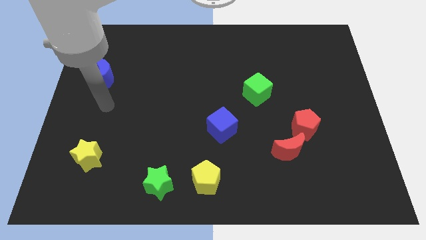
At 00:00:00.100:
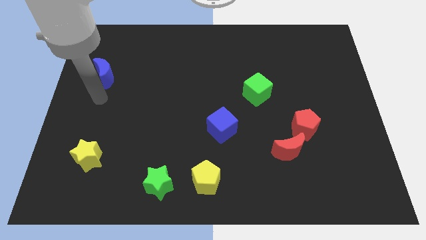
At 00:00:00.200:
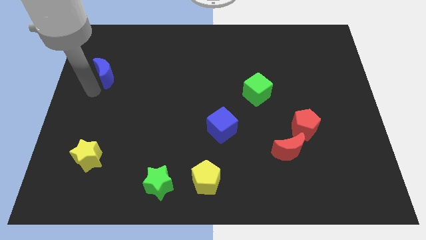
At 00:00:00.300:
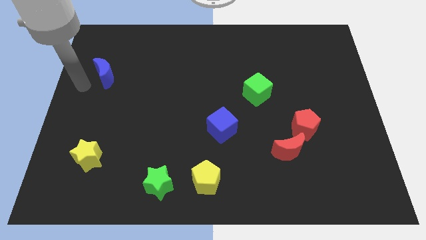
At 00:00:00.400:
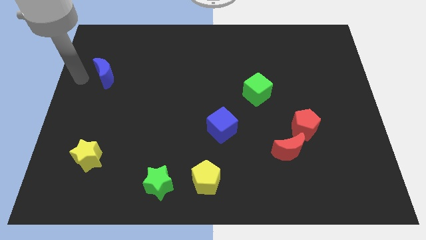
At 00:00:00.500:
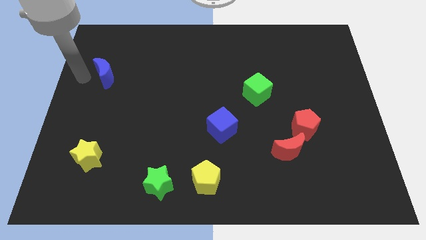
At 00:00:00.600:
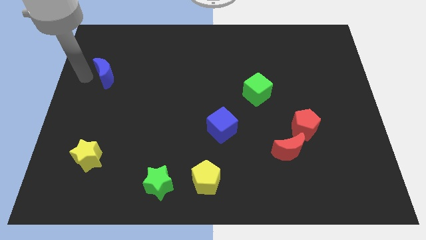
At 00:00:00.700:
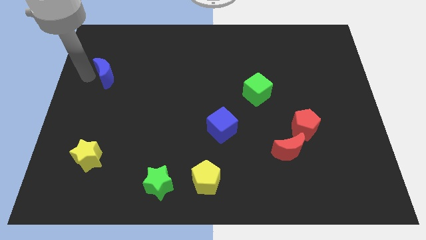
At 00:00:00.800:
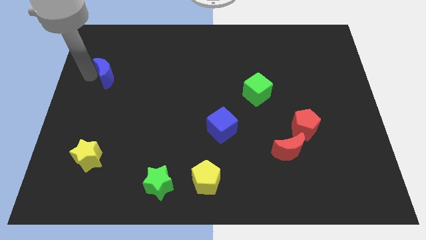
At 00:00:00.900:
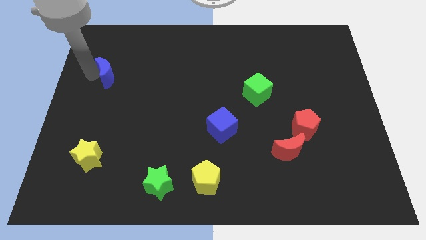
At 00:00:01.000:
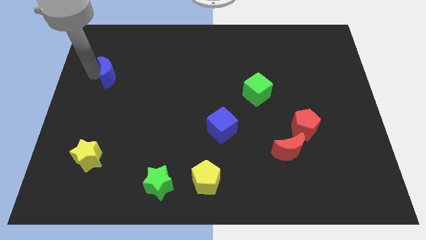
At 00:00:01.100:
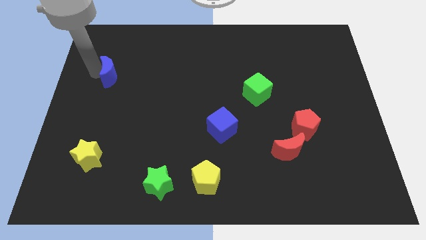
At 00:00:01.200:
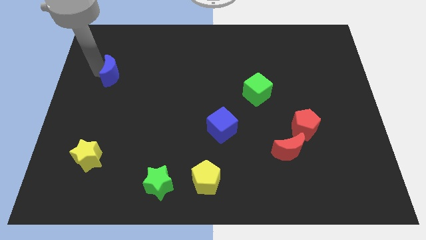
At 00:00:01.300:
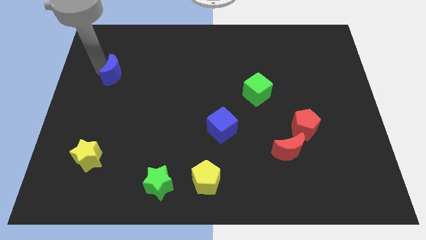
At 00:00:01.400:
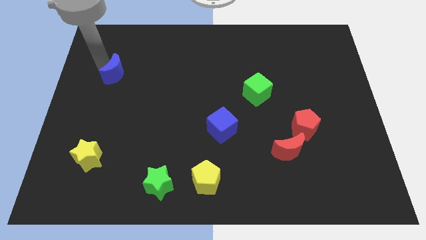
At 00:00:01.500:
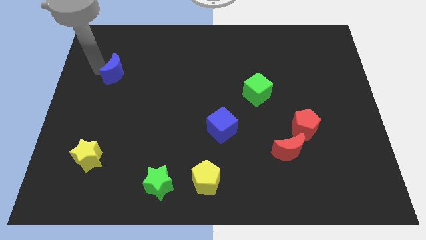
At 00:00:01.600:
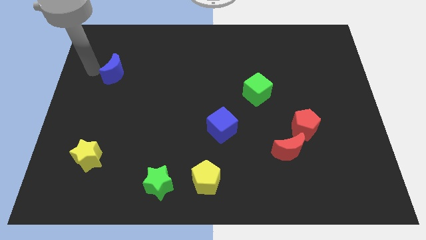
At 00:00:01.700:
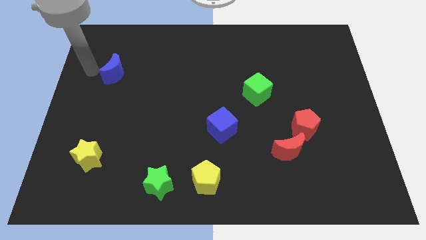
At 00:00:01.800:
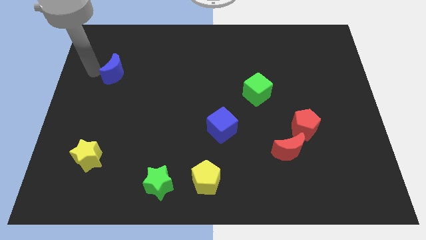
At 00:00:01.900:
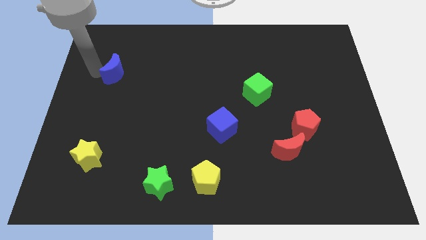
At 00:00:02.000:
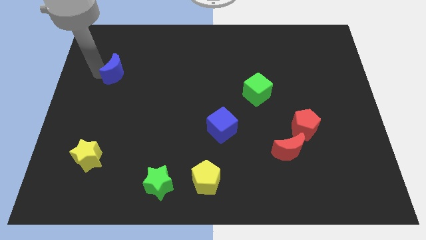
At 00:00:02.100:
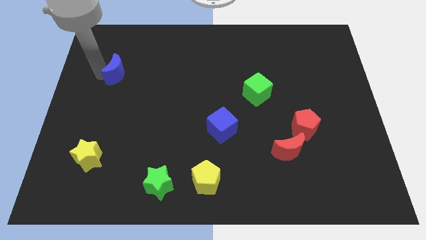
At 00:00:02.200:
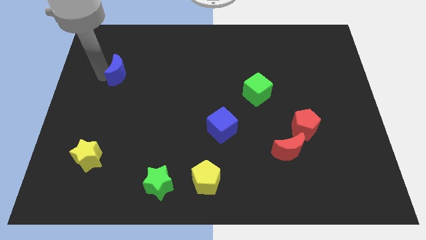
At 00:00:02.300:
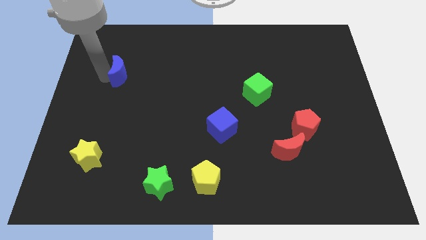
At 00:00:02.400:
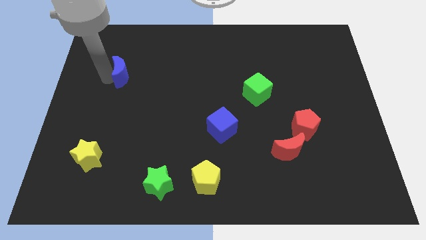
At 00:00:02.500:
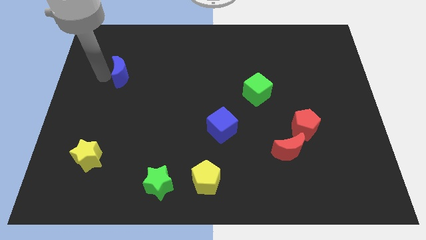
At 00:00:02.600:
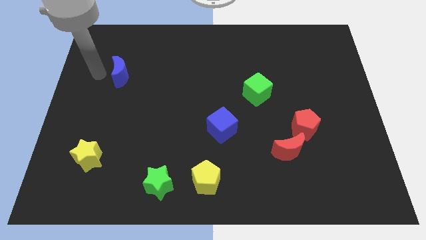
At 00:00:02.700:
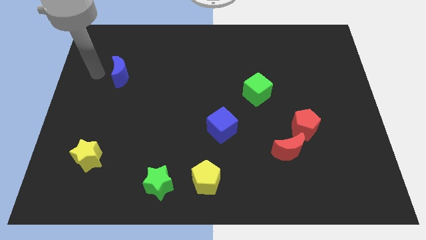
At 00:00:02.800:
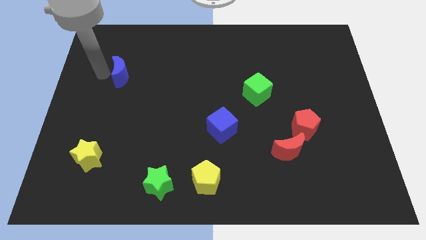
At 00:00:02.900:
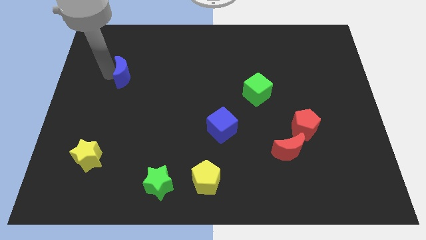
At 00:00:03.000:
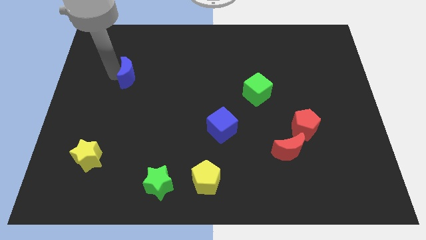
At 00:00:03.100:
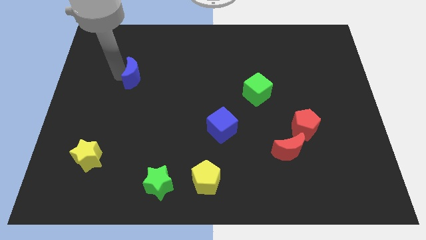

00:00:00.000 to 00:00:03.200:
move the blue moon slightly to the right

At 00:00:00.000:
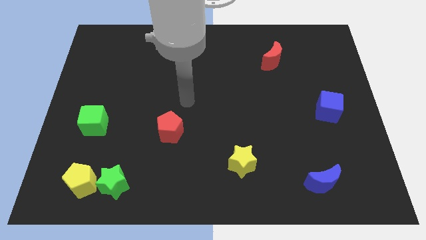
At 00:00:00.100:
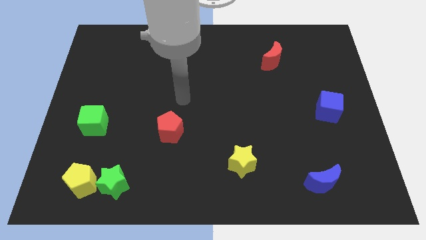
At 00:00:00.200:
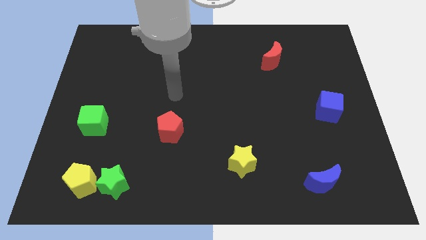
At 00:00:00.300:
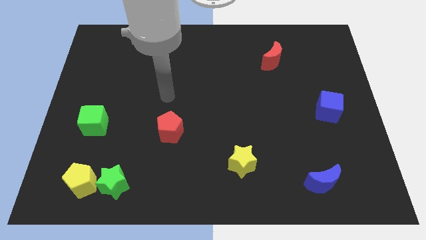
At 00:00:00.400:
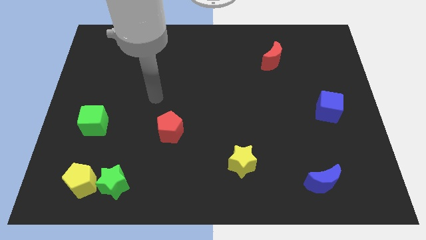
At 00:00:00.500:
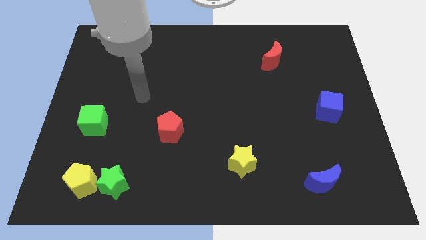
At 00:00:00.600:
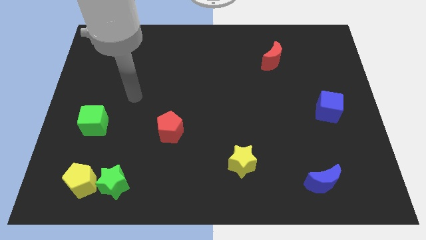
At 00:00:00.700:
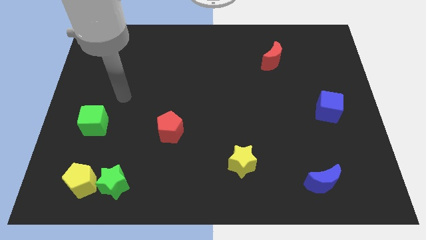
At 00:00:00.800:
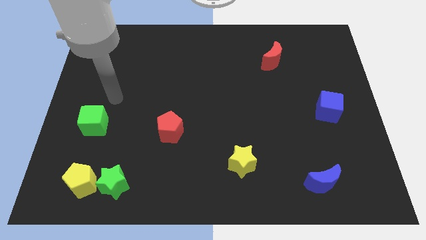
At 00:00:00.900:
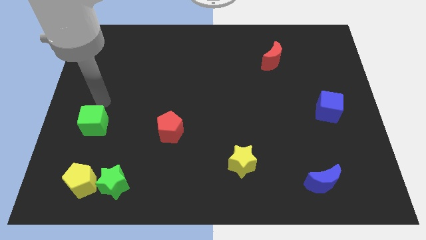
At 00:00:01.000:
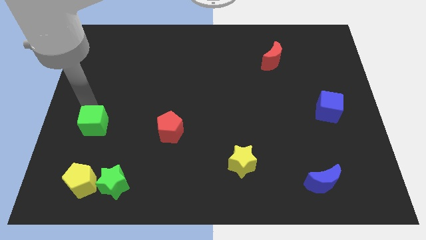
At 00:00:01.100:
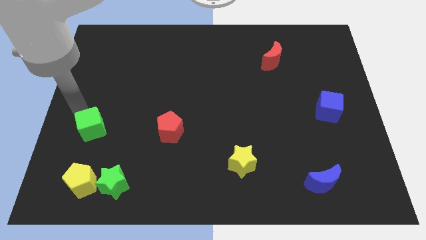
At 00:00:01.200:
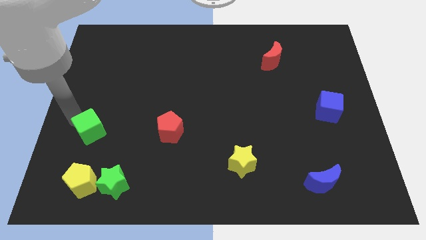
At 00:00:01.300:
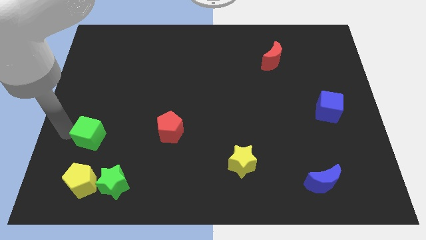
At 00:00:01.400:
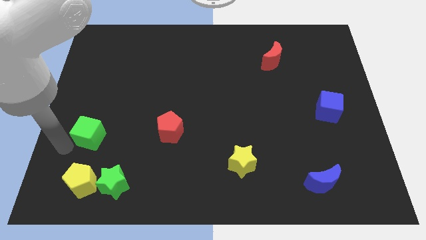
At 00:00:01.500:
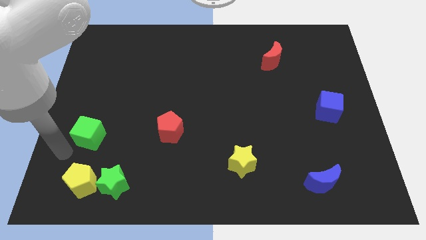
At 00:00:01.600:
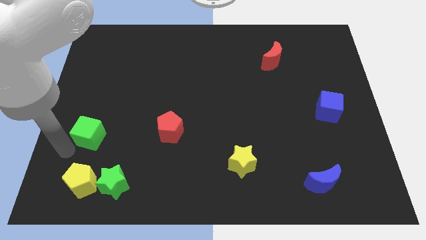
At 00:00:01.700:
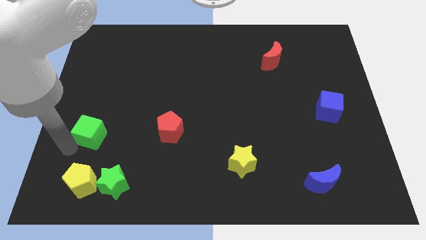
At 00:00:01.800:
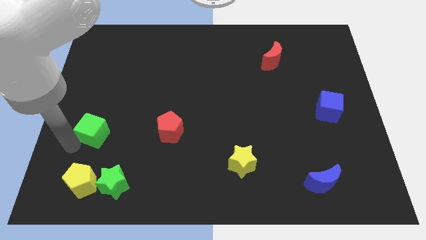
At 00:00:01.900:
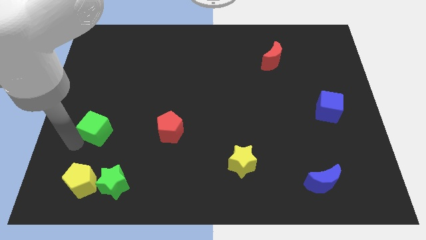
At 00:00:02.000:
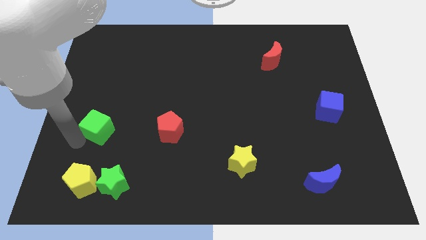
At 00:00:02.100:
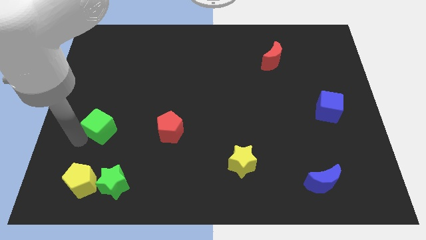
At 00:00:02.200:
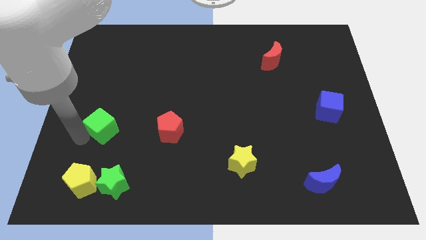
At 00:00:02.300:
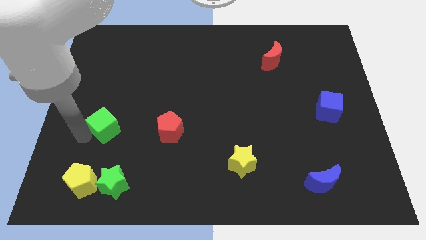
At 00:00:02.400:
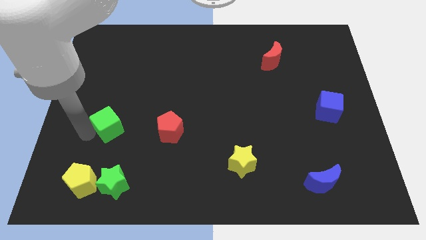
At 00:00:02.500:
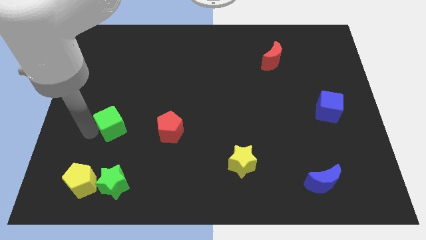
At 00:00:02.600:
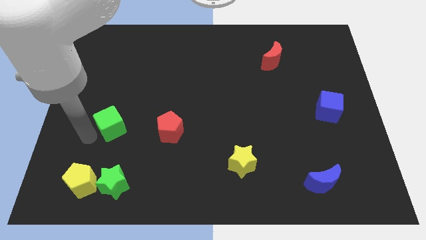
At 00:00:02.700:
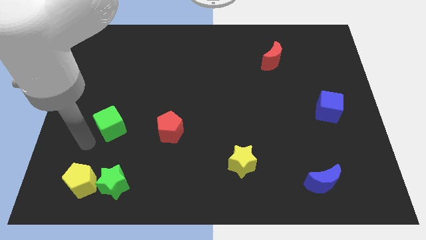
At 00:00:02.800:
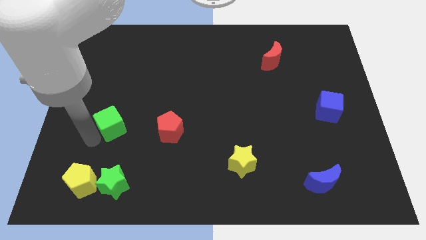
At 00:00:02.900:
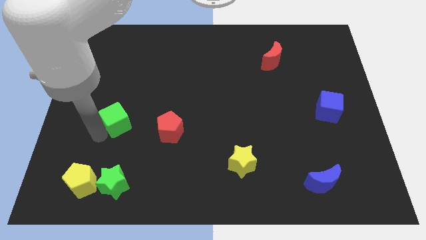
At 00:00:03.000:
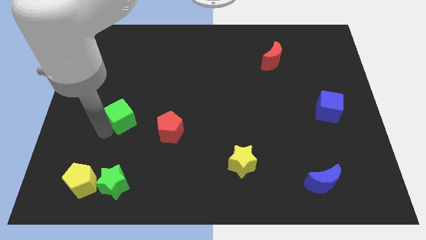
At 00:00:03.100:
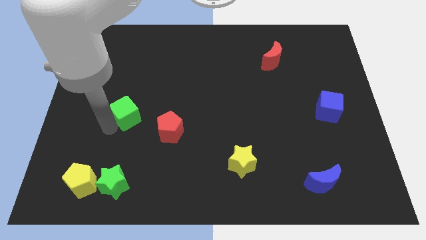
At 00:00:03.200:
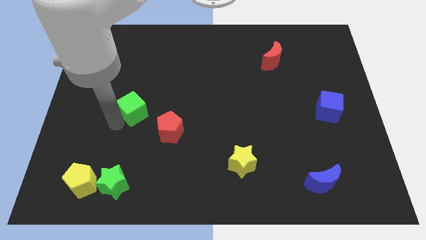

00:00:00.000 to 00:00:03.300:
slightly move the green cube upwards and to the right

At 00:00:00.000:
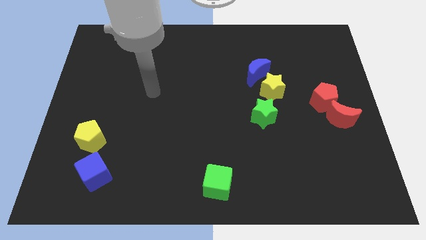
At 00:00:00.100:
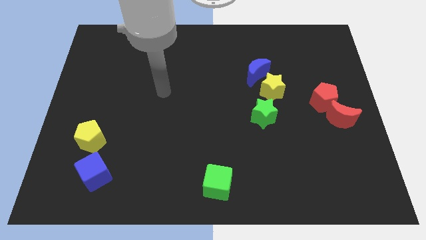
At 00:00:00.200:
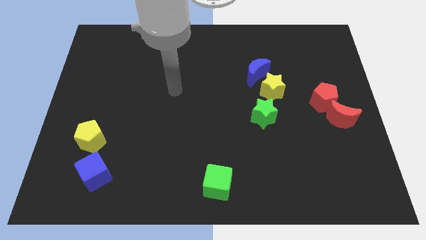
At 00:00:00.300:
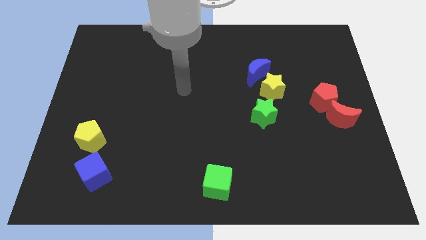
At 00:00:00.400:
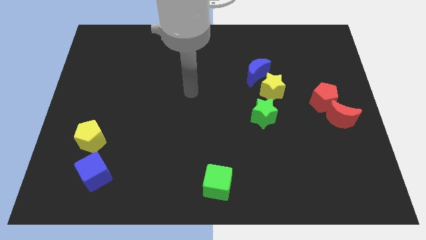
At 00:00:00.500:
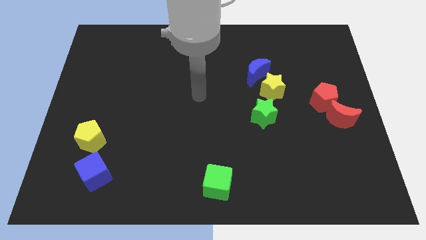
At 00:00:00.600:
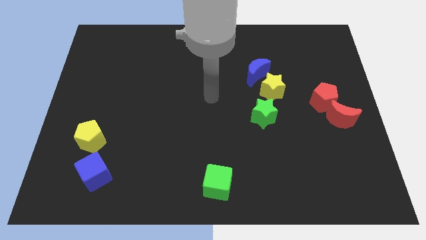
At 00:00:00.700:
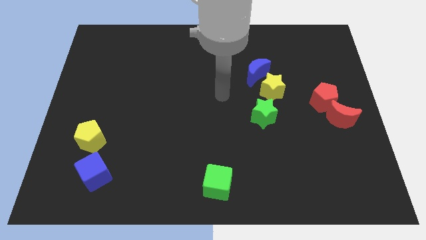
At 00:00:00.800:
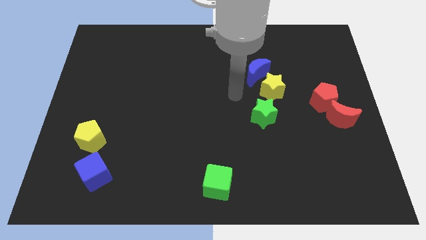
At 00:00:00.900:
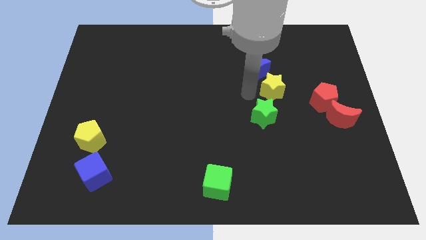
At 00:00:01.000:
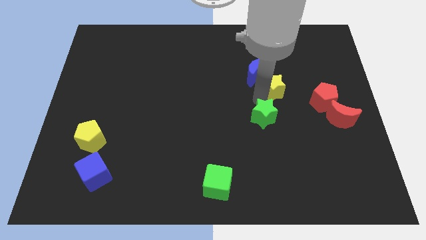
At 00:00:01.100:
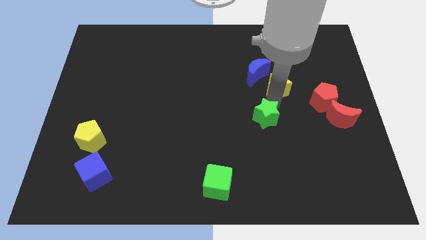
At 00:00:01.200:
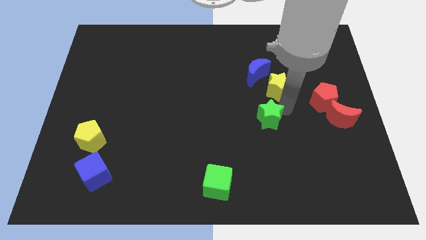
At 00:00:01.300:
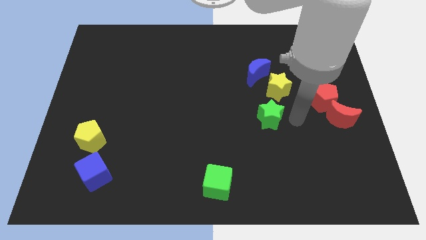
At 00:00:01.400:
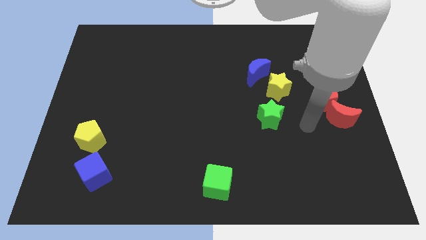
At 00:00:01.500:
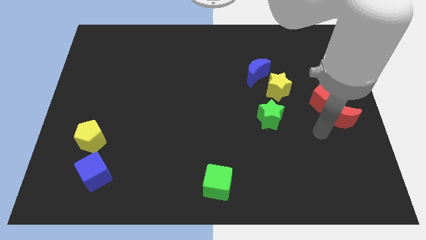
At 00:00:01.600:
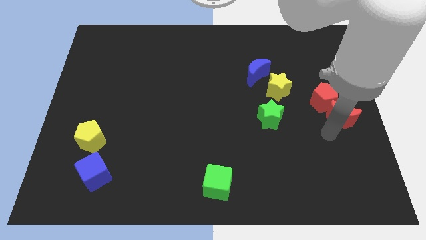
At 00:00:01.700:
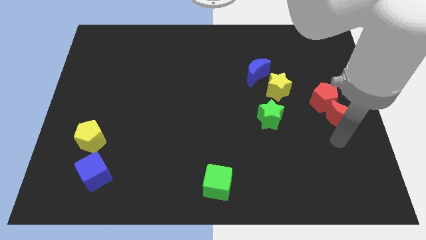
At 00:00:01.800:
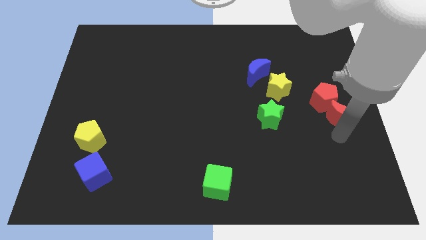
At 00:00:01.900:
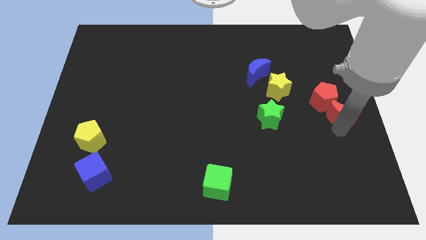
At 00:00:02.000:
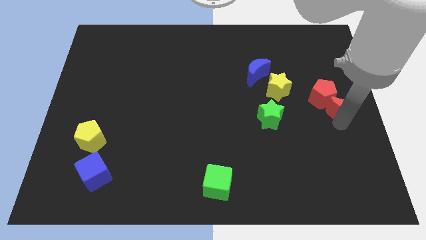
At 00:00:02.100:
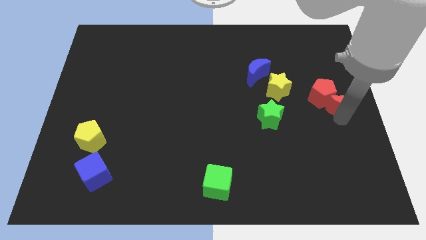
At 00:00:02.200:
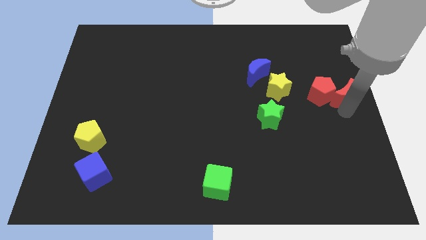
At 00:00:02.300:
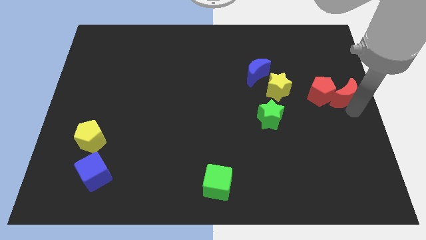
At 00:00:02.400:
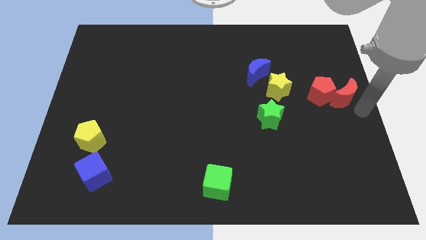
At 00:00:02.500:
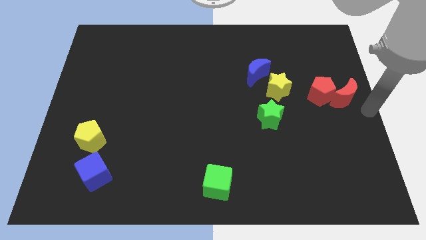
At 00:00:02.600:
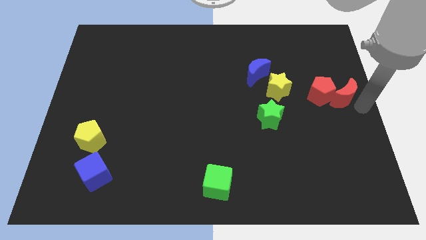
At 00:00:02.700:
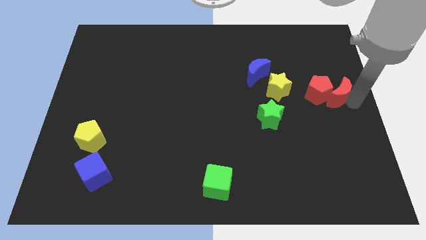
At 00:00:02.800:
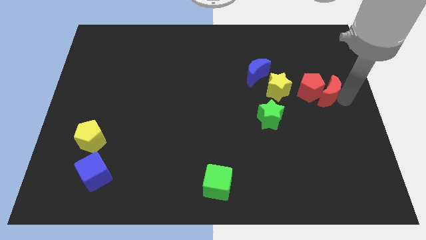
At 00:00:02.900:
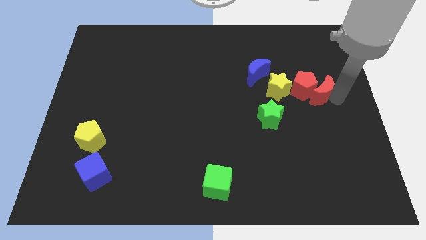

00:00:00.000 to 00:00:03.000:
slide the red moon slightly up and to the left diagonally
